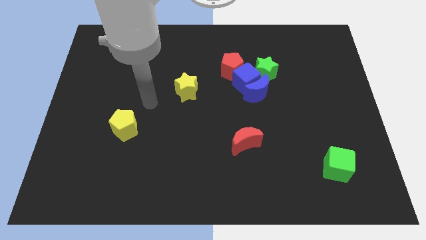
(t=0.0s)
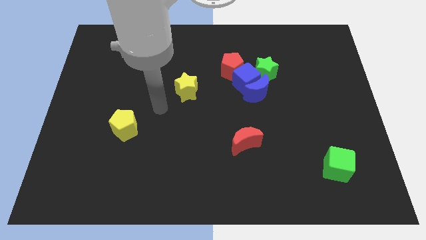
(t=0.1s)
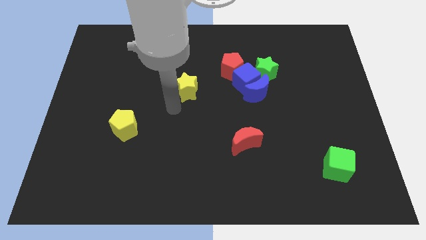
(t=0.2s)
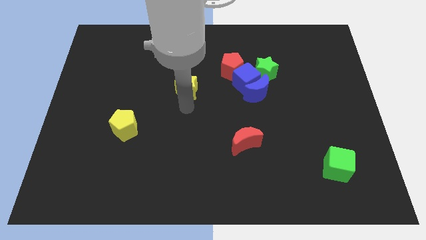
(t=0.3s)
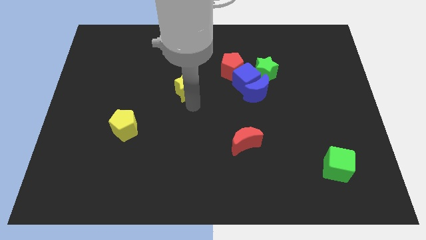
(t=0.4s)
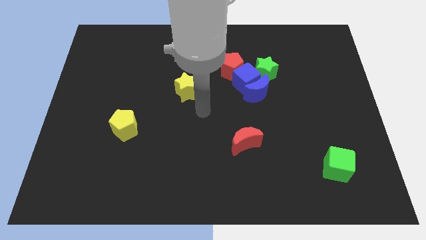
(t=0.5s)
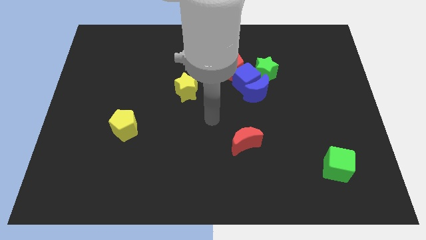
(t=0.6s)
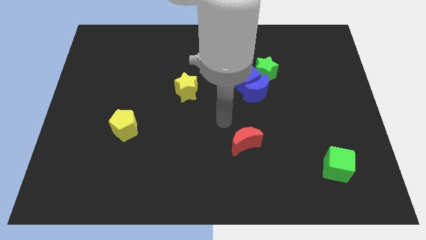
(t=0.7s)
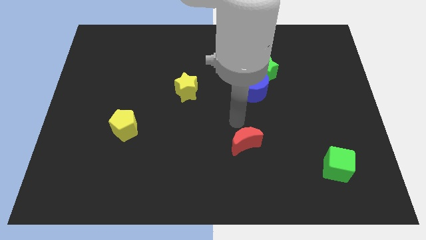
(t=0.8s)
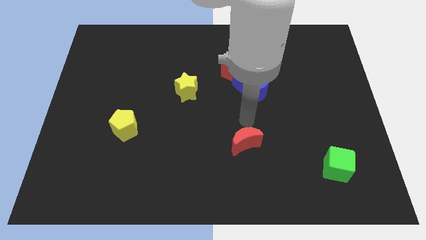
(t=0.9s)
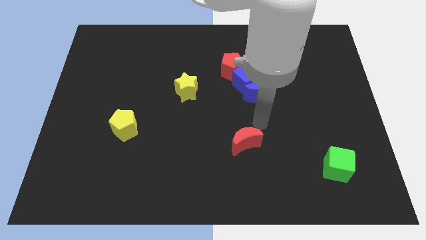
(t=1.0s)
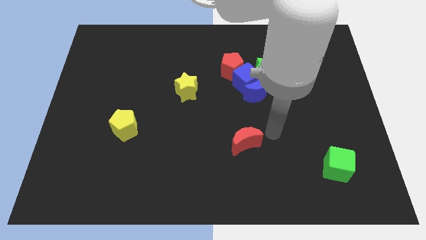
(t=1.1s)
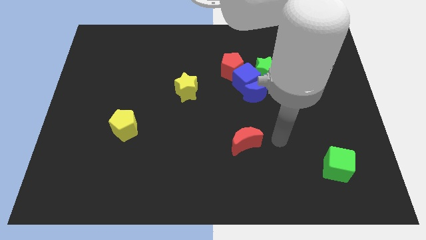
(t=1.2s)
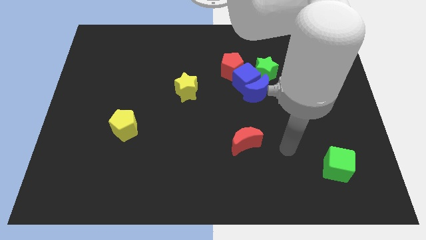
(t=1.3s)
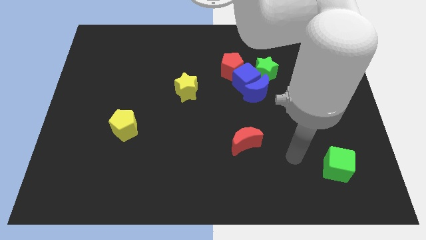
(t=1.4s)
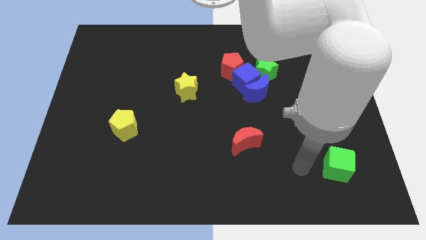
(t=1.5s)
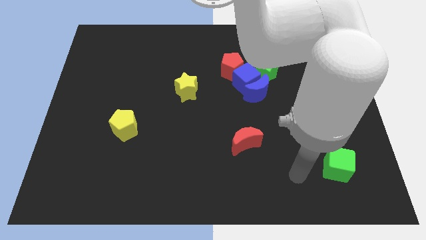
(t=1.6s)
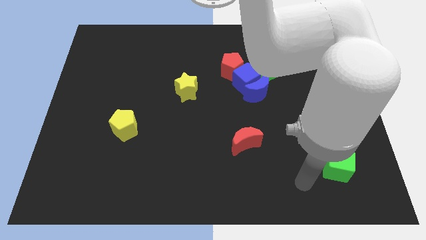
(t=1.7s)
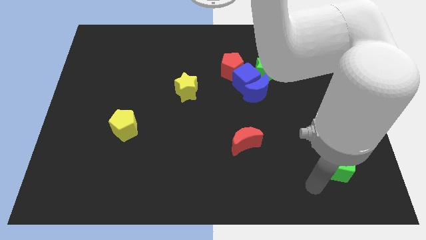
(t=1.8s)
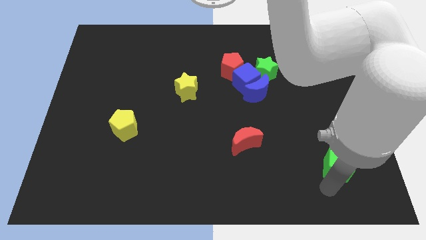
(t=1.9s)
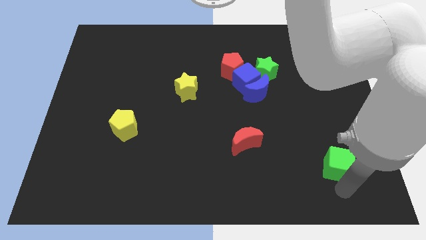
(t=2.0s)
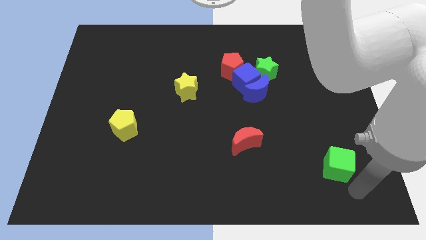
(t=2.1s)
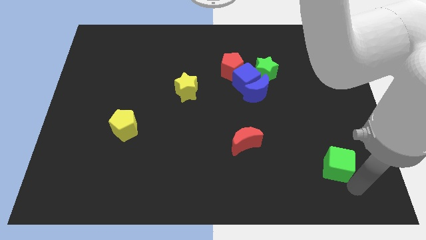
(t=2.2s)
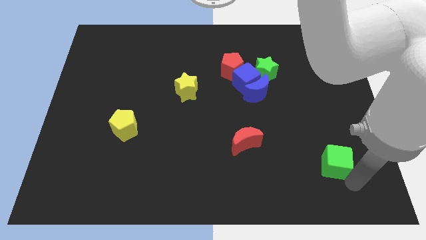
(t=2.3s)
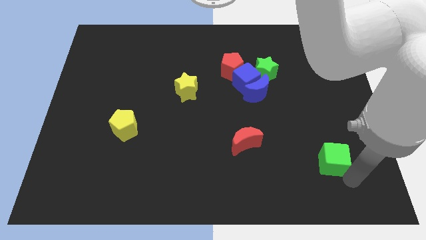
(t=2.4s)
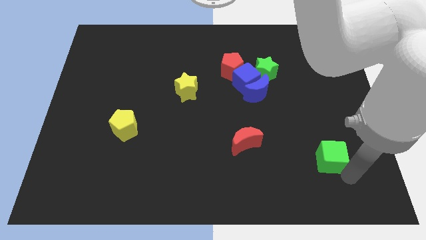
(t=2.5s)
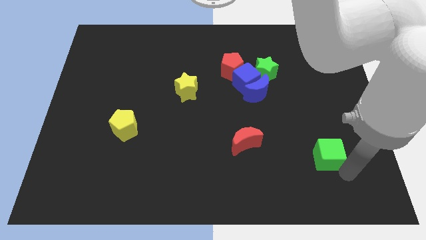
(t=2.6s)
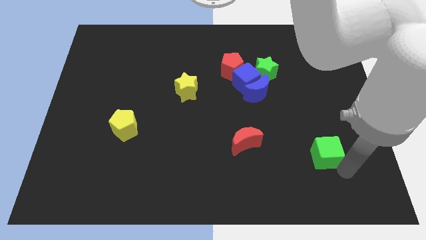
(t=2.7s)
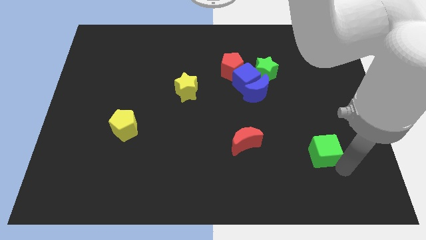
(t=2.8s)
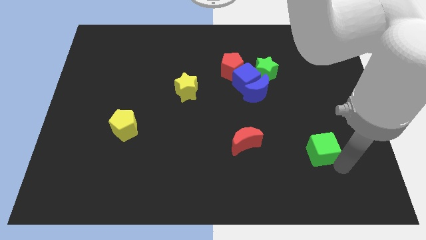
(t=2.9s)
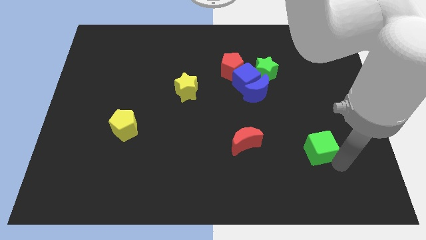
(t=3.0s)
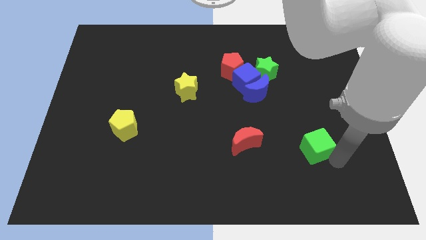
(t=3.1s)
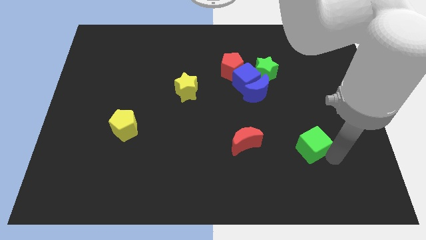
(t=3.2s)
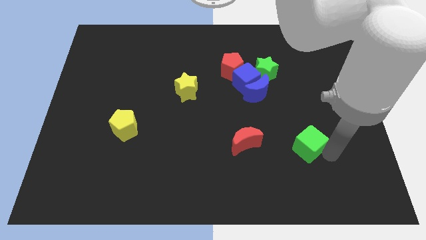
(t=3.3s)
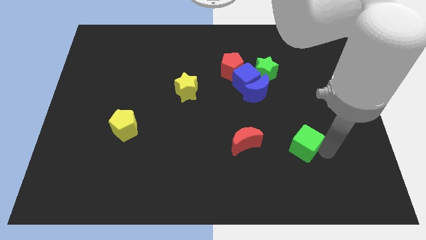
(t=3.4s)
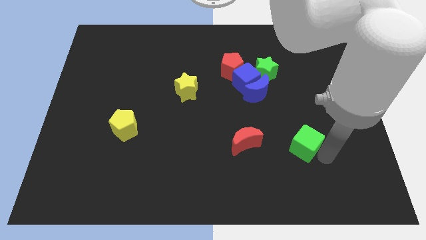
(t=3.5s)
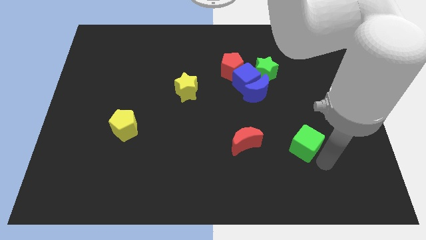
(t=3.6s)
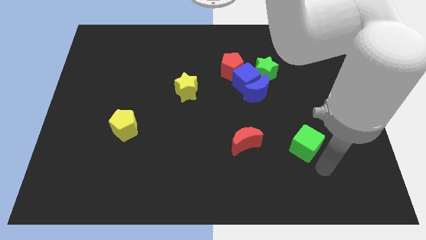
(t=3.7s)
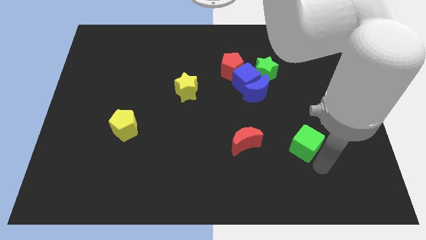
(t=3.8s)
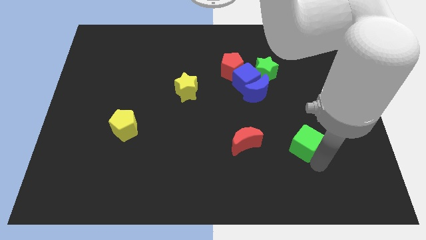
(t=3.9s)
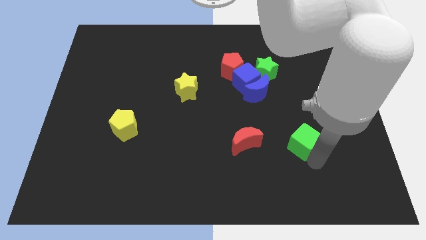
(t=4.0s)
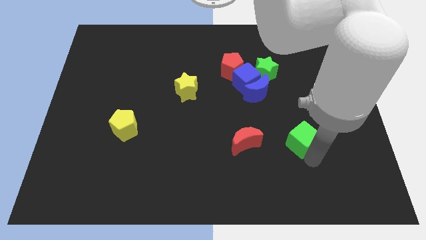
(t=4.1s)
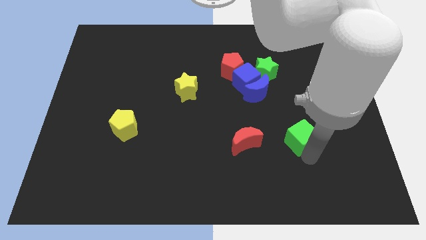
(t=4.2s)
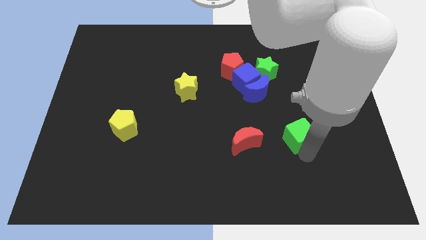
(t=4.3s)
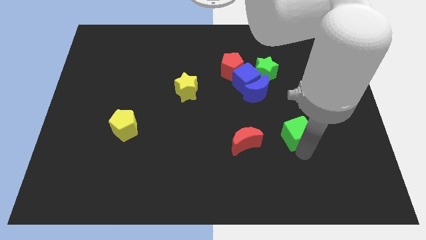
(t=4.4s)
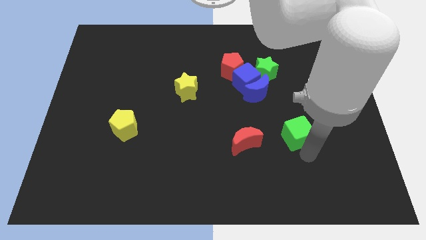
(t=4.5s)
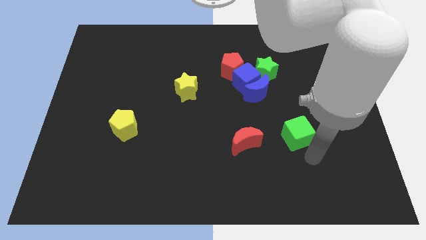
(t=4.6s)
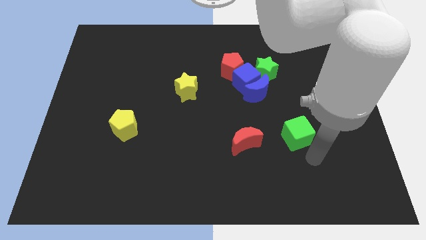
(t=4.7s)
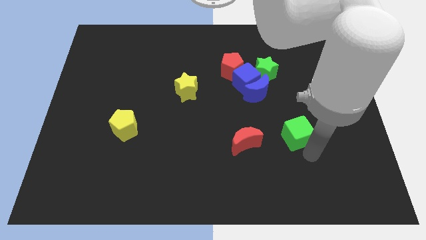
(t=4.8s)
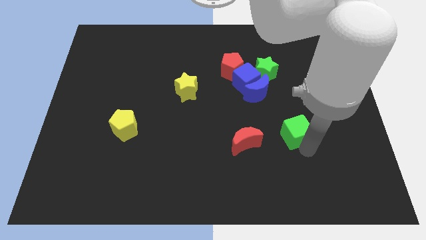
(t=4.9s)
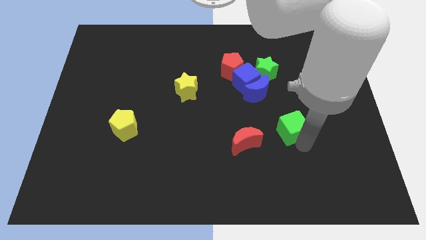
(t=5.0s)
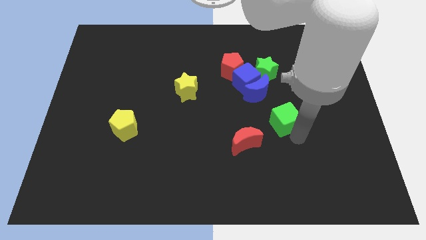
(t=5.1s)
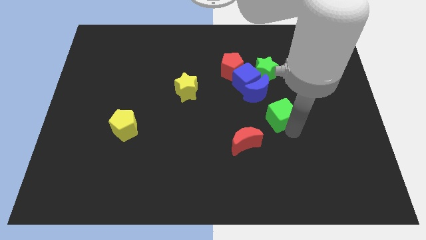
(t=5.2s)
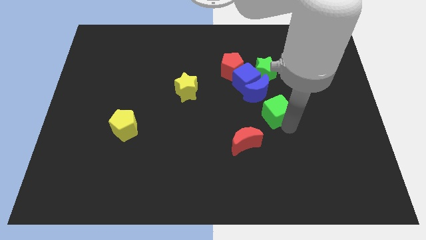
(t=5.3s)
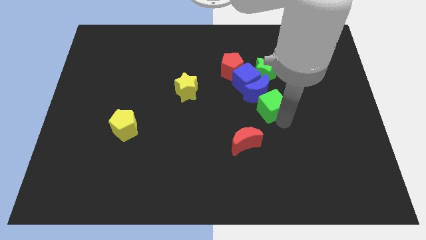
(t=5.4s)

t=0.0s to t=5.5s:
move the green cube next to the blue moon

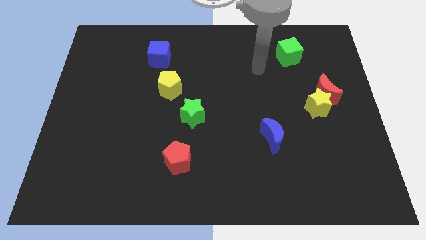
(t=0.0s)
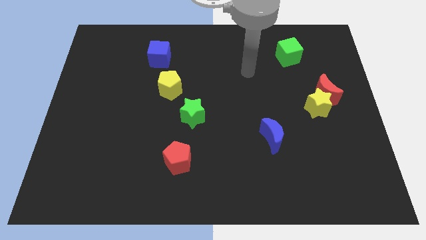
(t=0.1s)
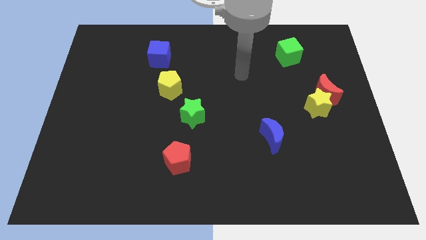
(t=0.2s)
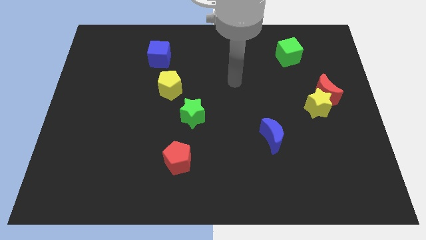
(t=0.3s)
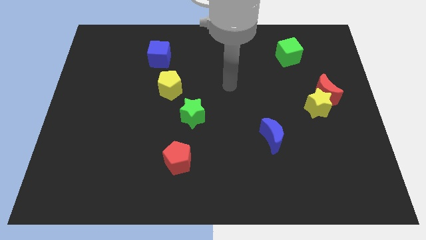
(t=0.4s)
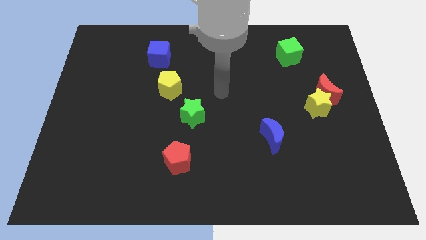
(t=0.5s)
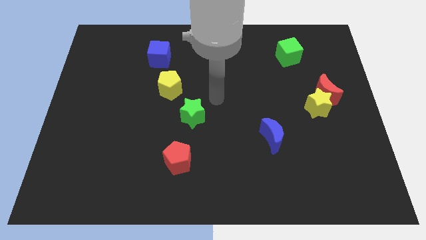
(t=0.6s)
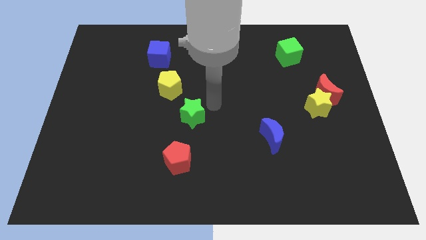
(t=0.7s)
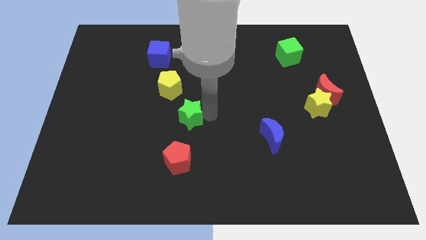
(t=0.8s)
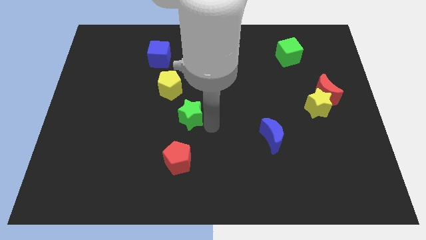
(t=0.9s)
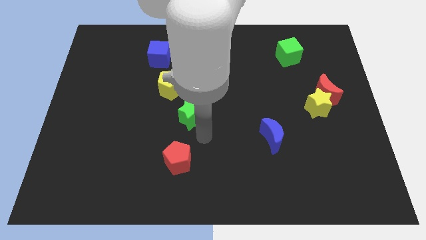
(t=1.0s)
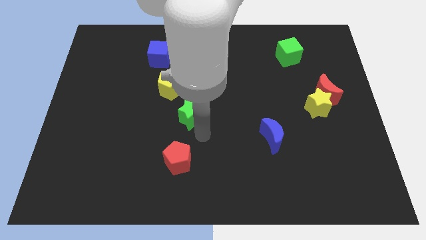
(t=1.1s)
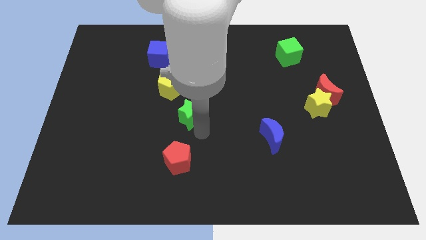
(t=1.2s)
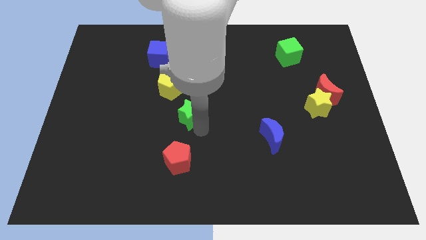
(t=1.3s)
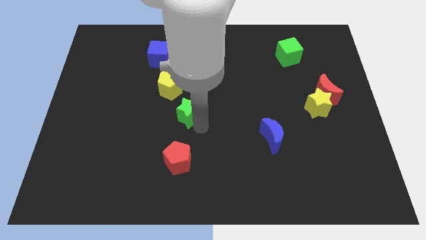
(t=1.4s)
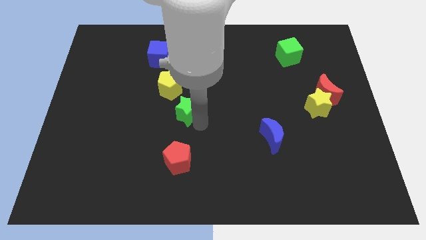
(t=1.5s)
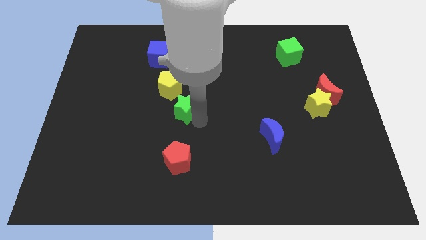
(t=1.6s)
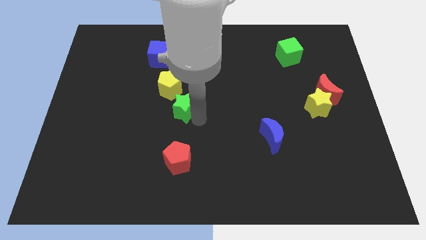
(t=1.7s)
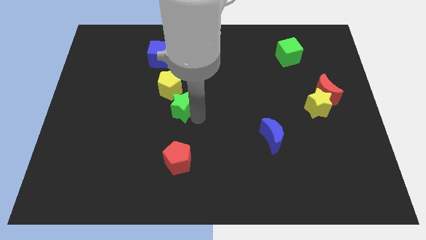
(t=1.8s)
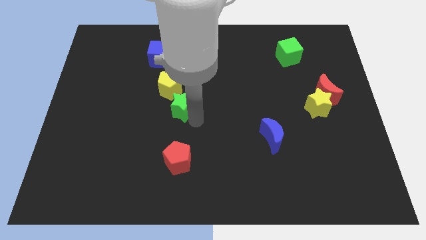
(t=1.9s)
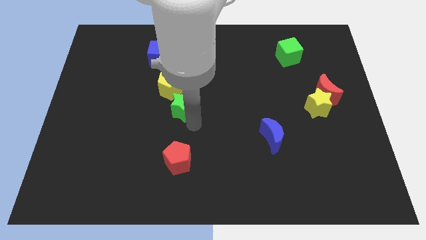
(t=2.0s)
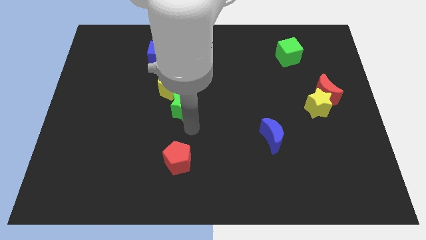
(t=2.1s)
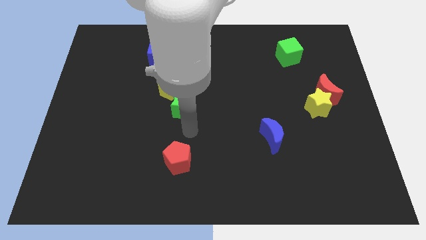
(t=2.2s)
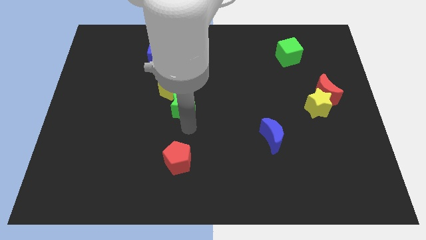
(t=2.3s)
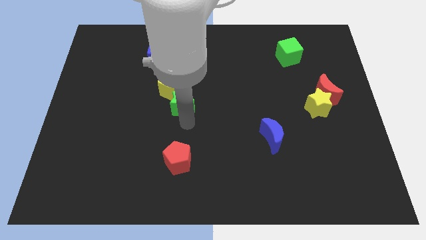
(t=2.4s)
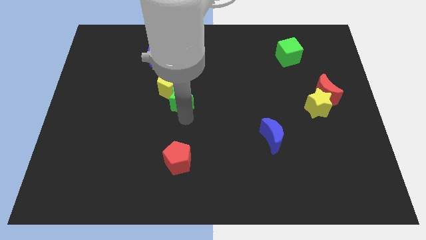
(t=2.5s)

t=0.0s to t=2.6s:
put the green star towards the yellow pentagon
